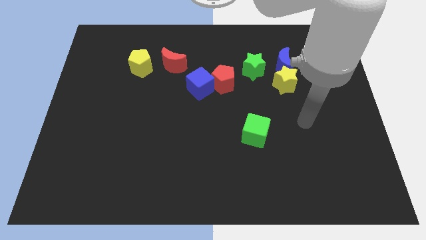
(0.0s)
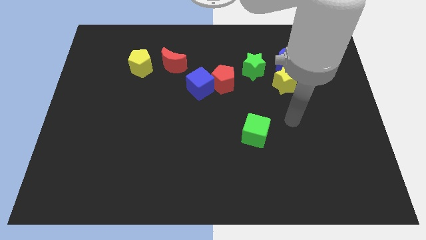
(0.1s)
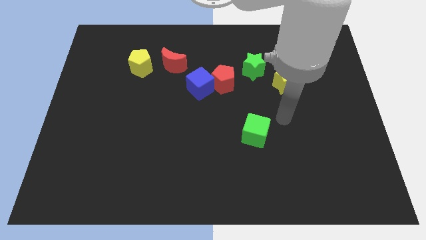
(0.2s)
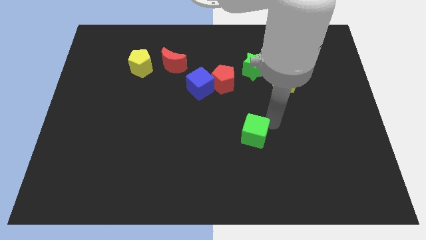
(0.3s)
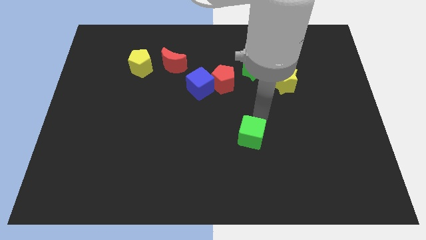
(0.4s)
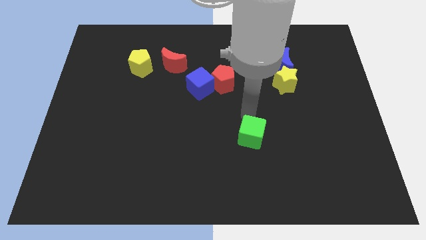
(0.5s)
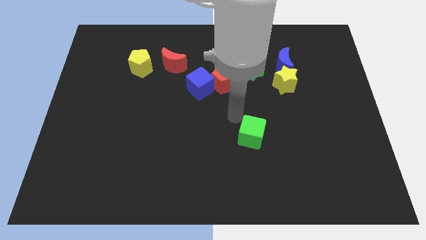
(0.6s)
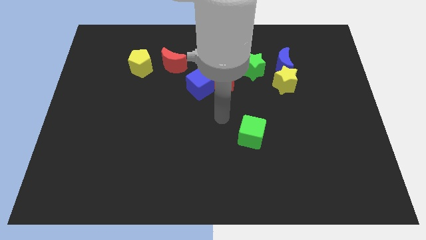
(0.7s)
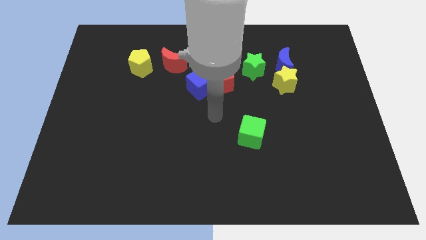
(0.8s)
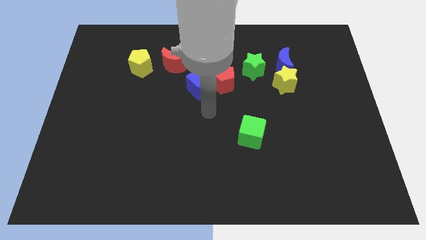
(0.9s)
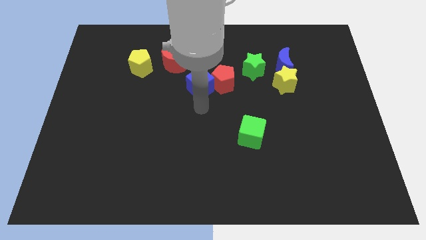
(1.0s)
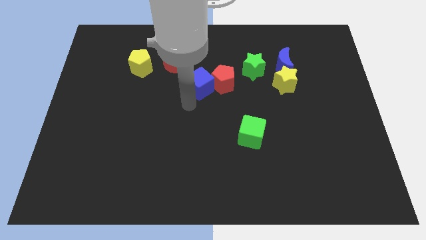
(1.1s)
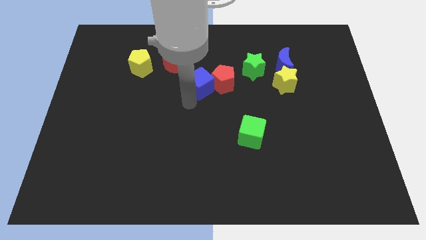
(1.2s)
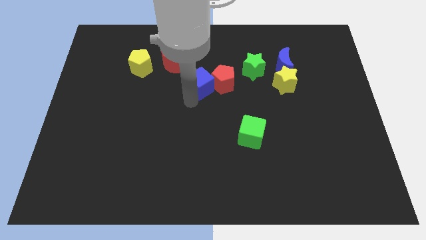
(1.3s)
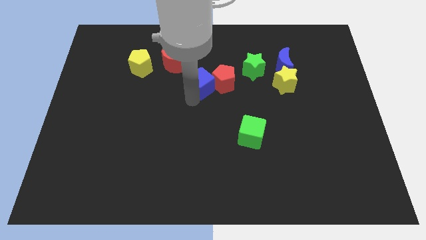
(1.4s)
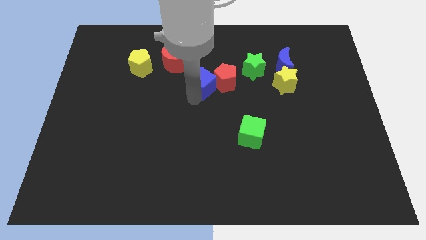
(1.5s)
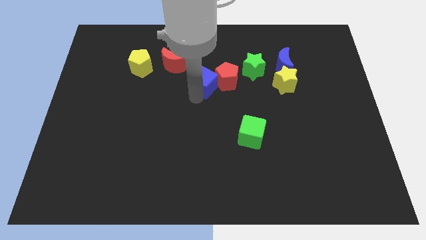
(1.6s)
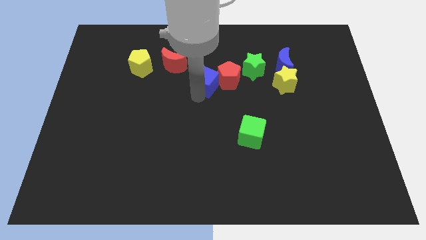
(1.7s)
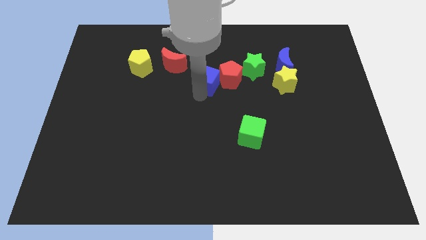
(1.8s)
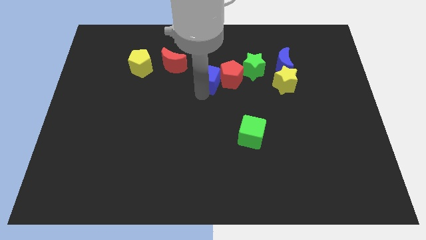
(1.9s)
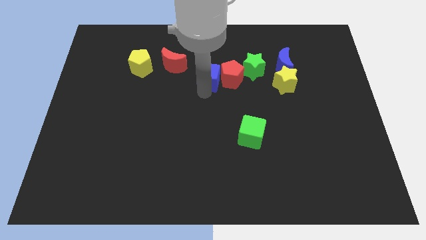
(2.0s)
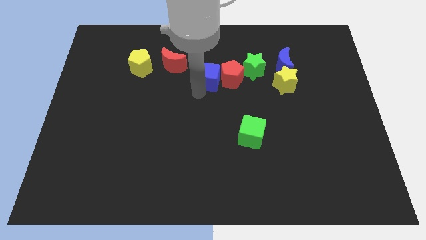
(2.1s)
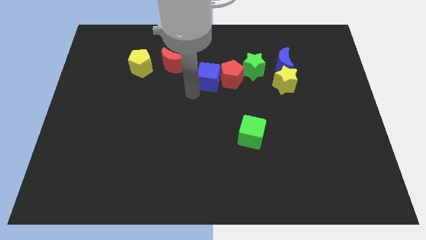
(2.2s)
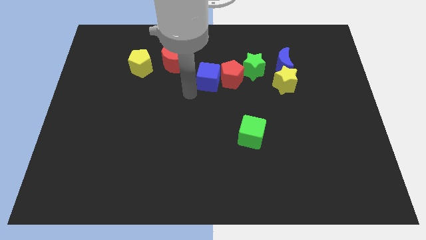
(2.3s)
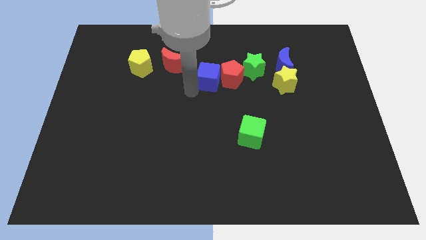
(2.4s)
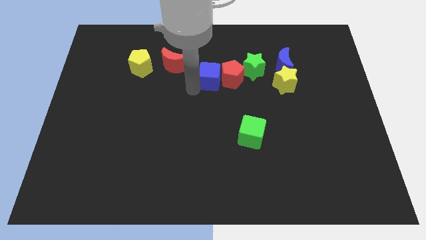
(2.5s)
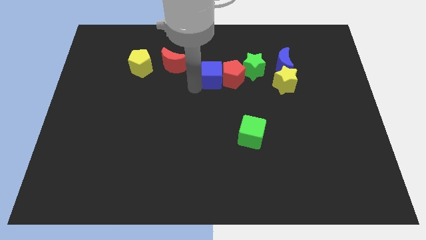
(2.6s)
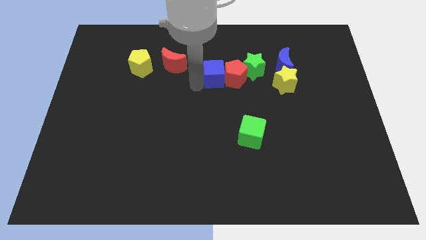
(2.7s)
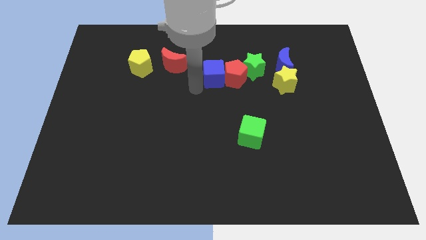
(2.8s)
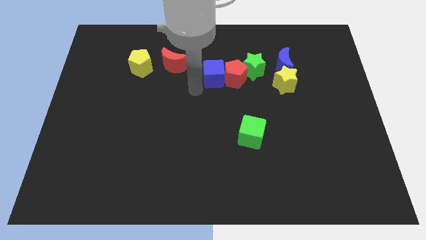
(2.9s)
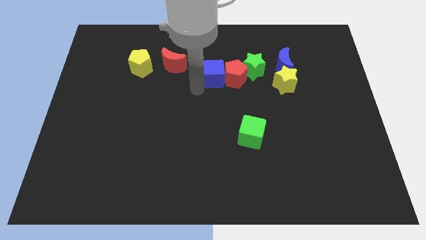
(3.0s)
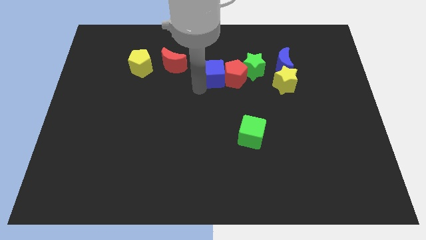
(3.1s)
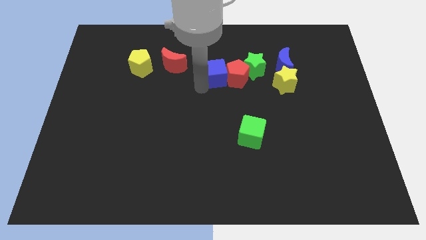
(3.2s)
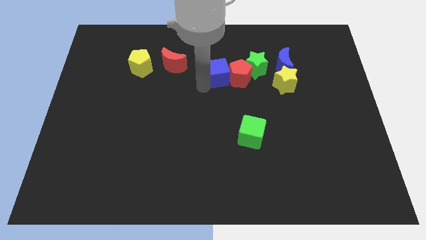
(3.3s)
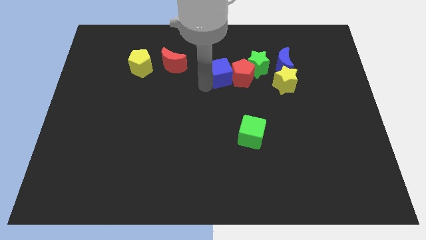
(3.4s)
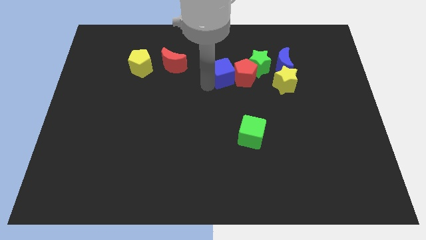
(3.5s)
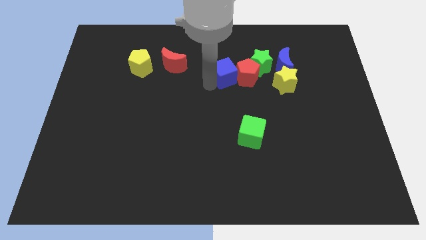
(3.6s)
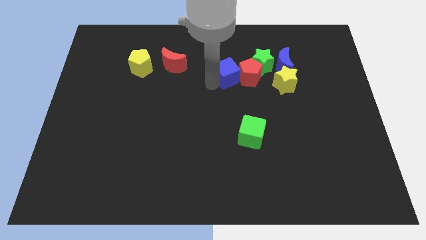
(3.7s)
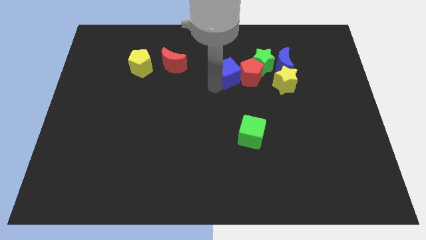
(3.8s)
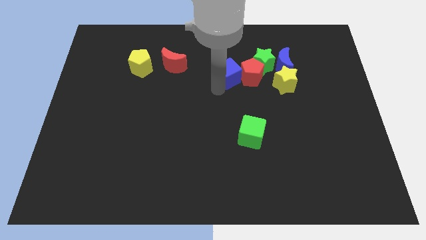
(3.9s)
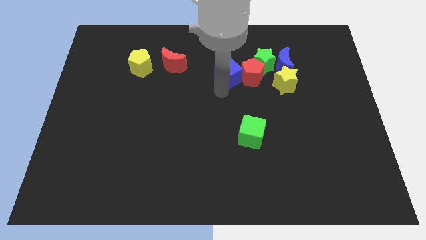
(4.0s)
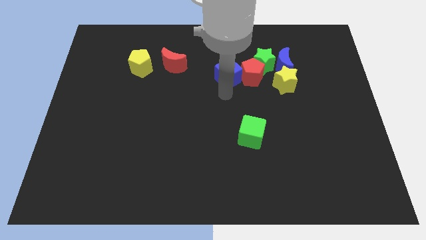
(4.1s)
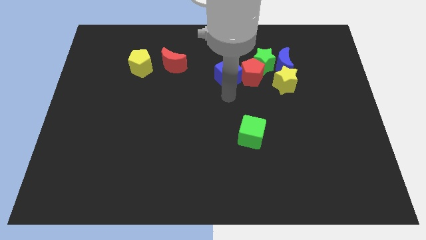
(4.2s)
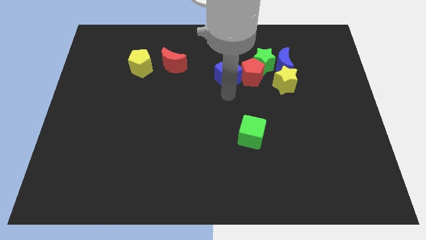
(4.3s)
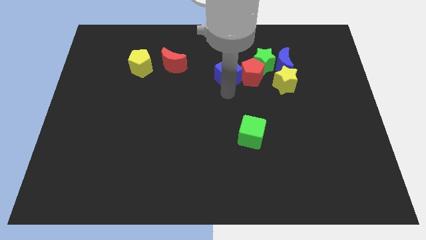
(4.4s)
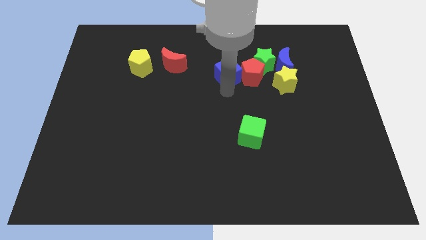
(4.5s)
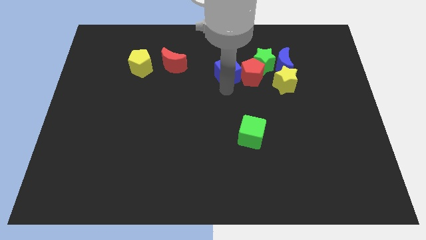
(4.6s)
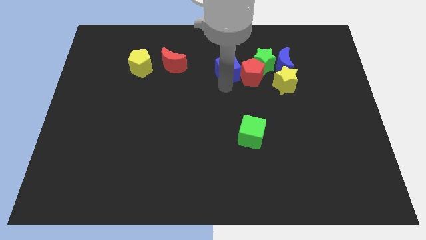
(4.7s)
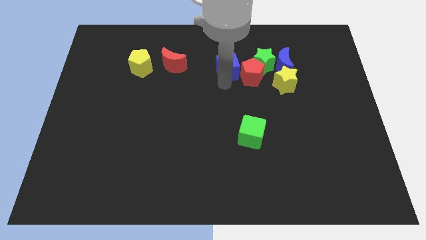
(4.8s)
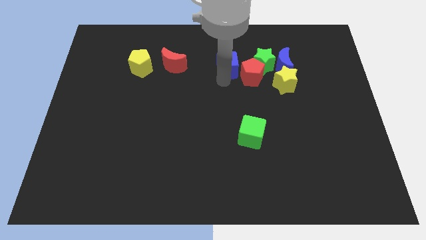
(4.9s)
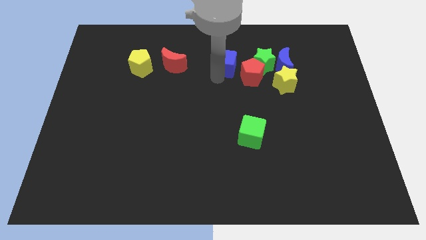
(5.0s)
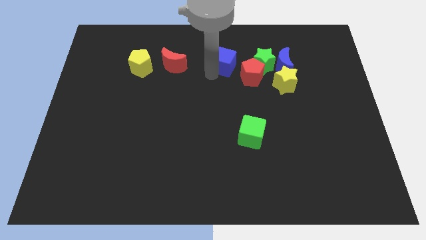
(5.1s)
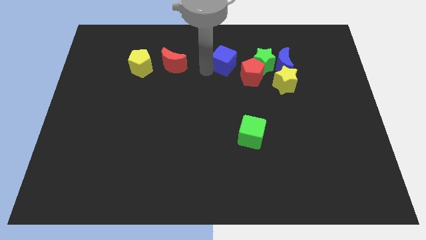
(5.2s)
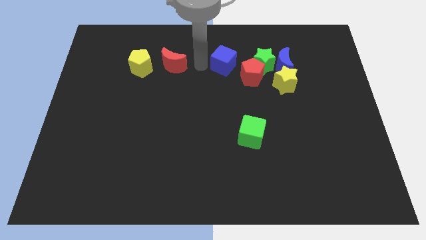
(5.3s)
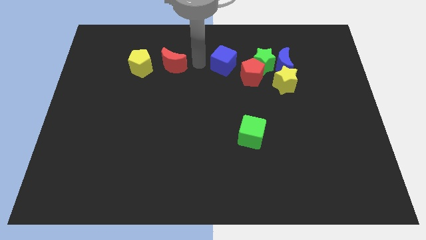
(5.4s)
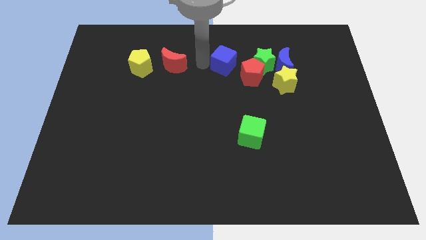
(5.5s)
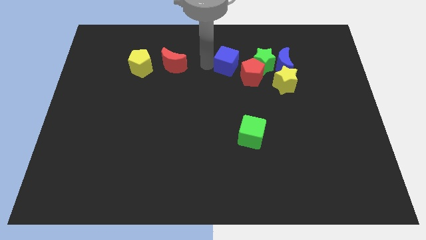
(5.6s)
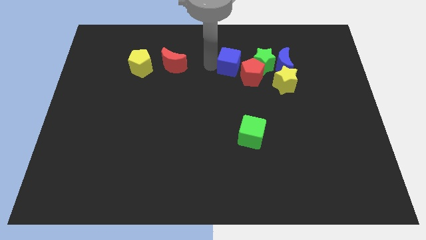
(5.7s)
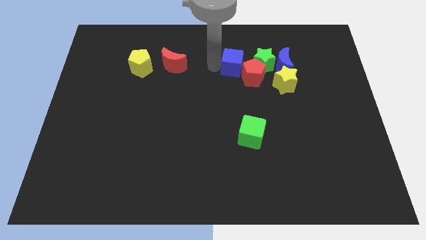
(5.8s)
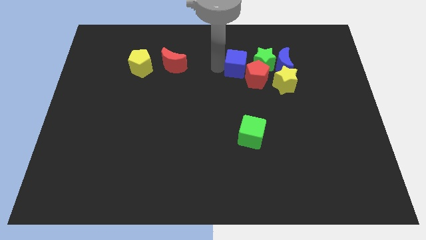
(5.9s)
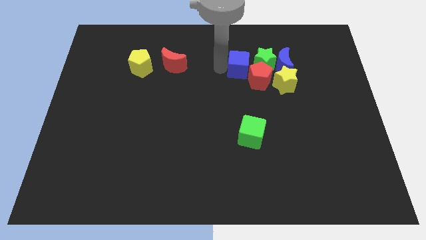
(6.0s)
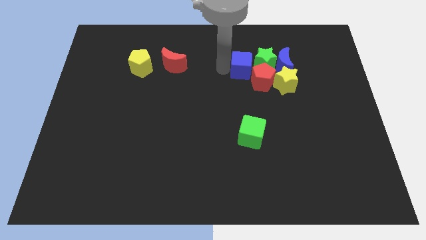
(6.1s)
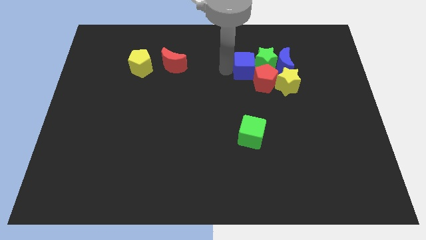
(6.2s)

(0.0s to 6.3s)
move the blue cube close to the green star

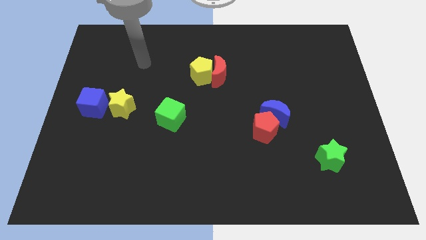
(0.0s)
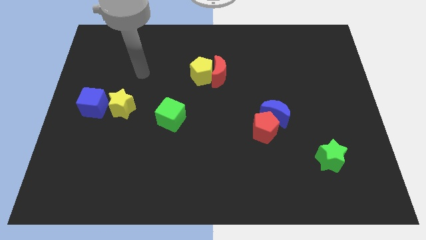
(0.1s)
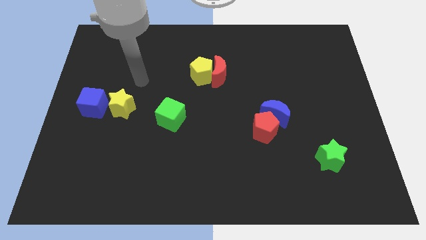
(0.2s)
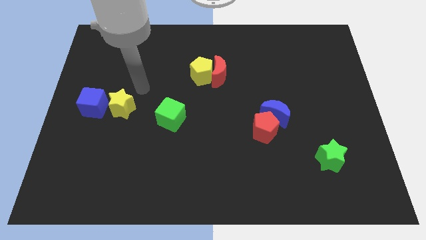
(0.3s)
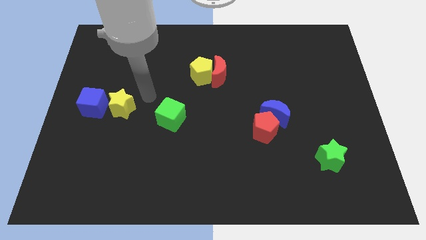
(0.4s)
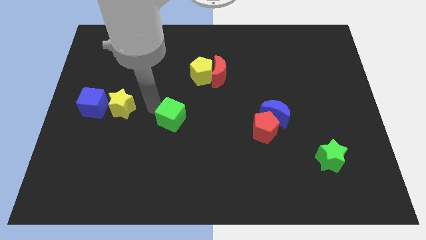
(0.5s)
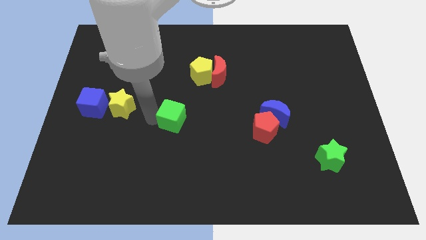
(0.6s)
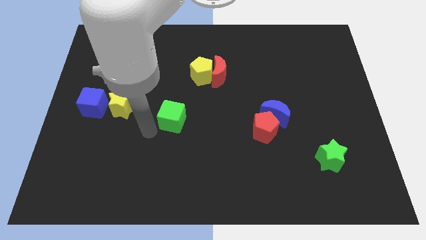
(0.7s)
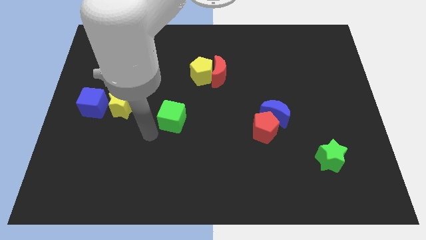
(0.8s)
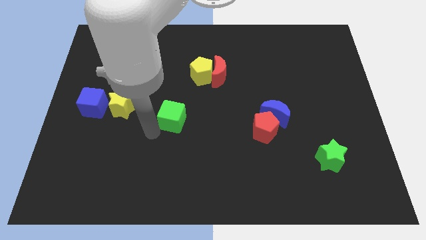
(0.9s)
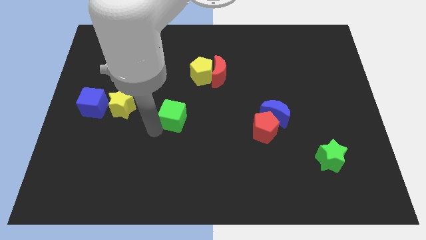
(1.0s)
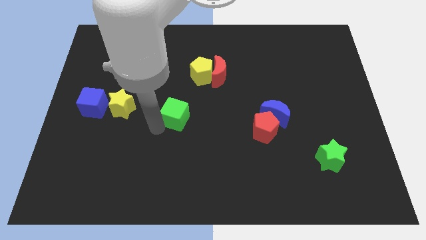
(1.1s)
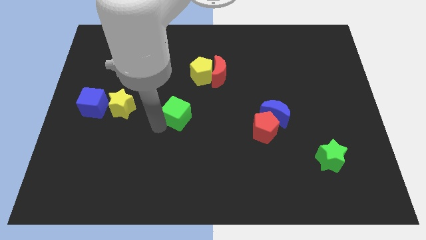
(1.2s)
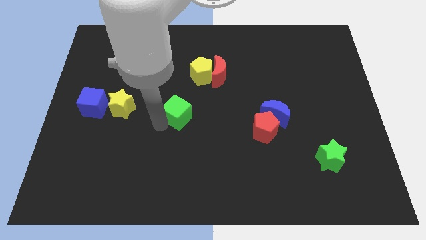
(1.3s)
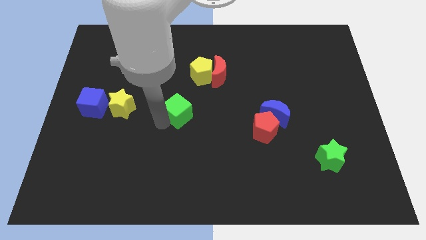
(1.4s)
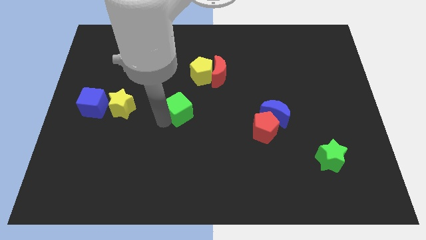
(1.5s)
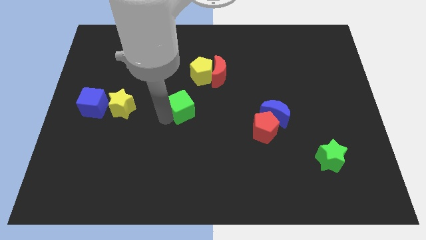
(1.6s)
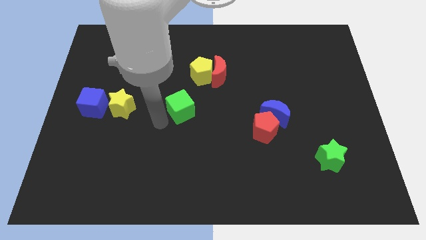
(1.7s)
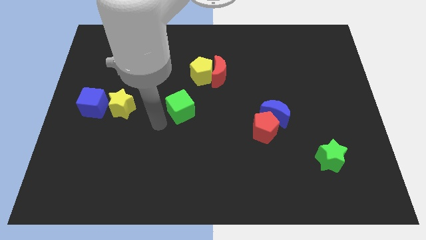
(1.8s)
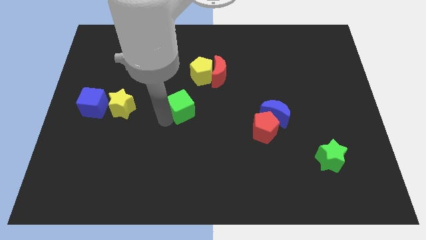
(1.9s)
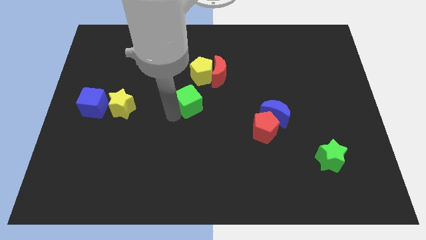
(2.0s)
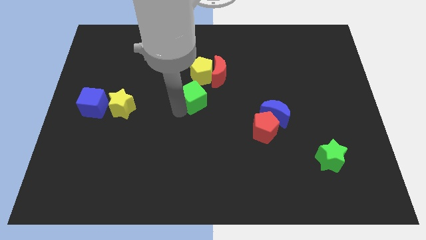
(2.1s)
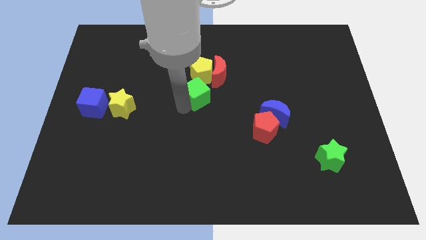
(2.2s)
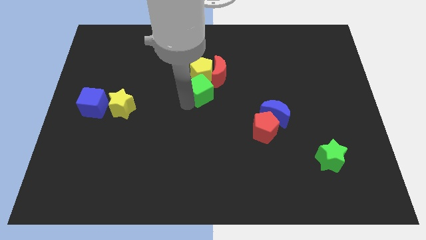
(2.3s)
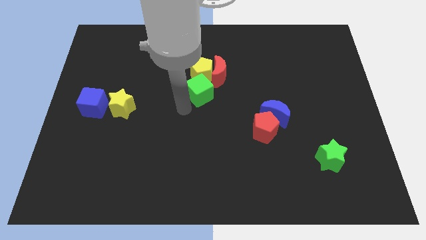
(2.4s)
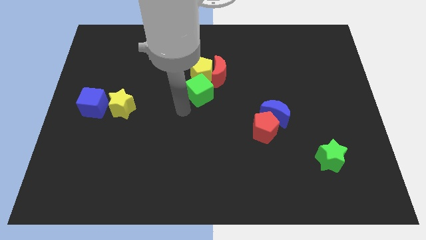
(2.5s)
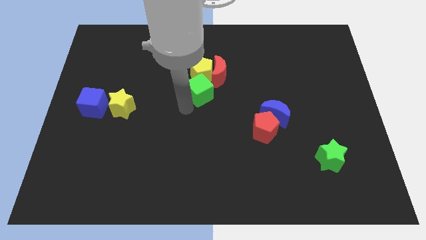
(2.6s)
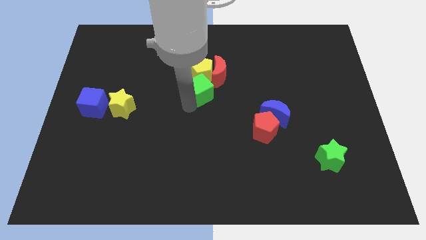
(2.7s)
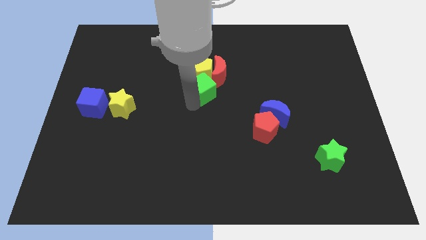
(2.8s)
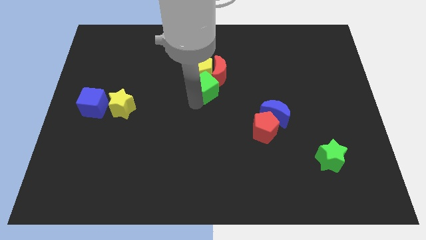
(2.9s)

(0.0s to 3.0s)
push the green cube close to the red moon
